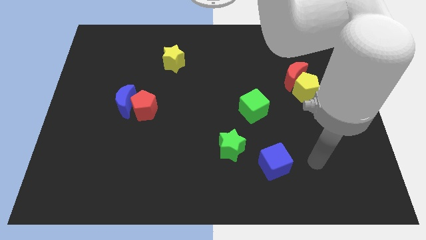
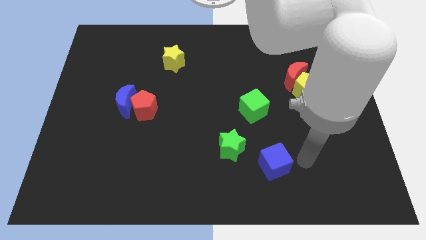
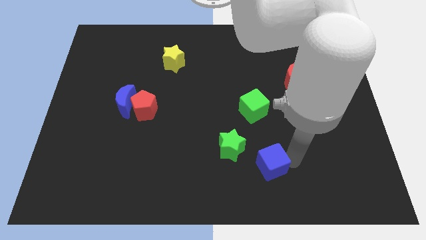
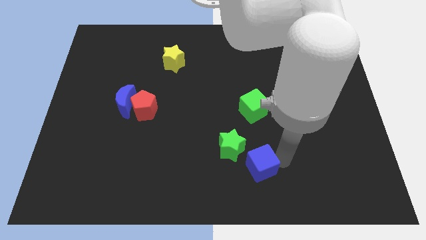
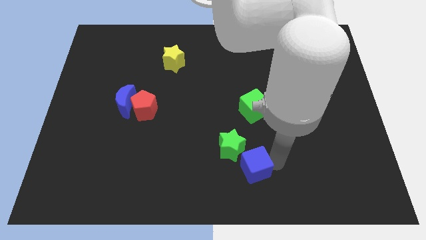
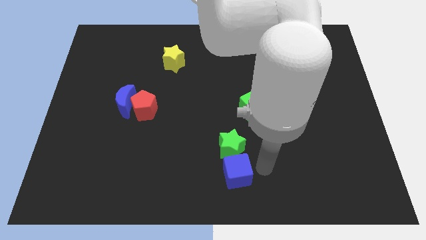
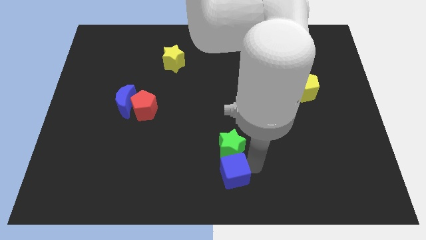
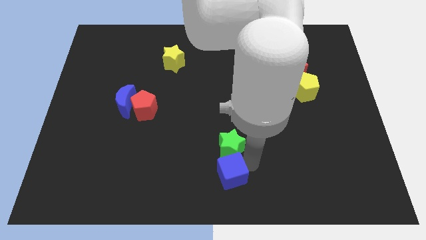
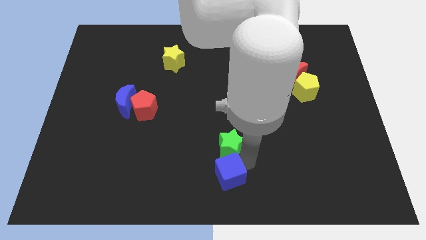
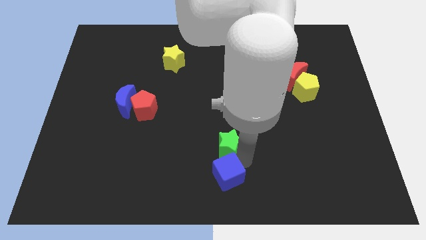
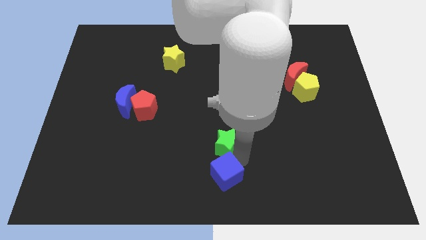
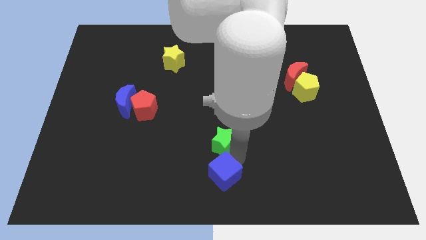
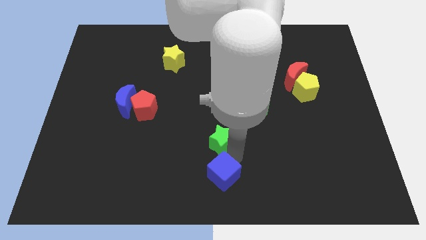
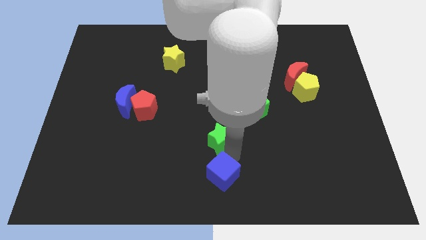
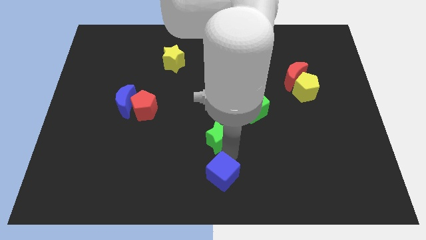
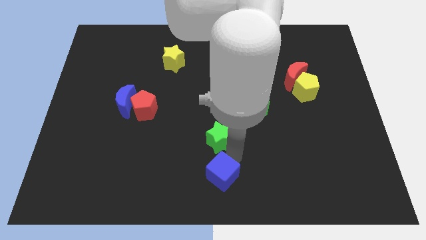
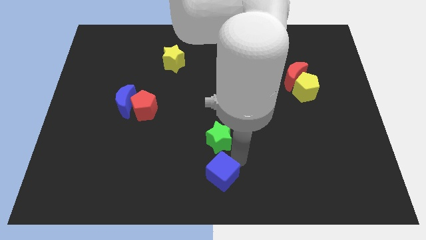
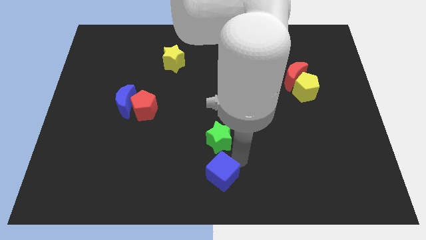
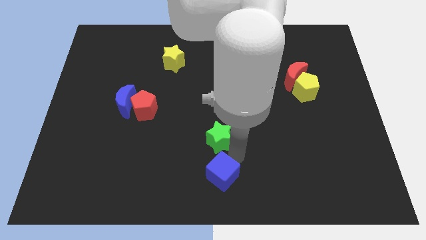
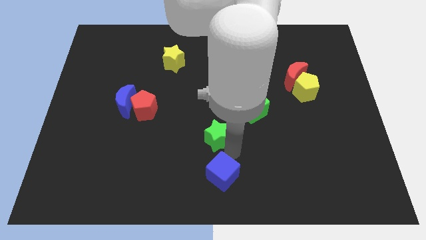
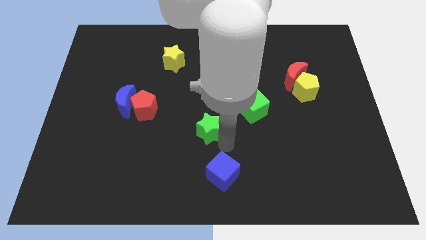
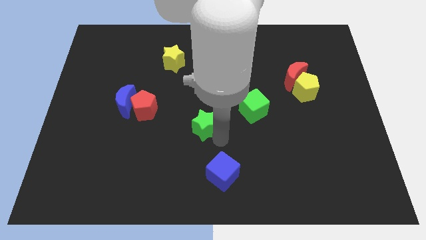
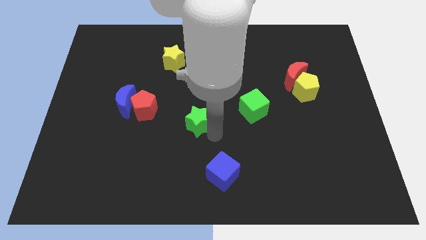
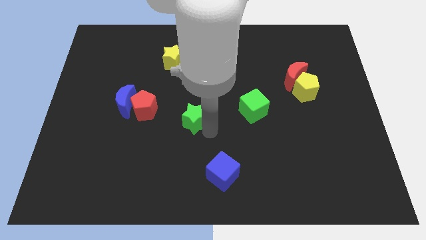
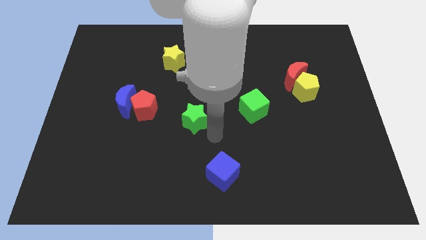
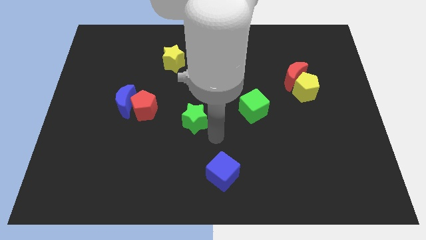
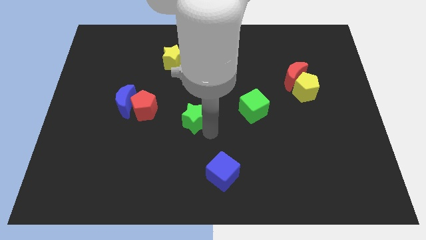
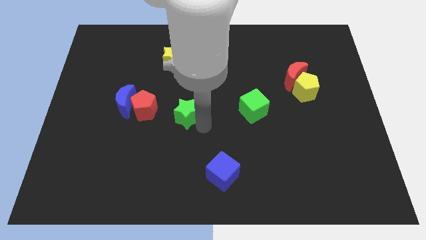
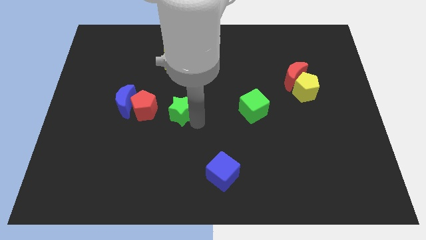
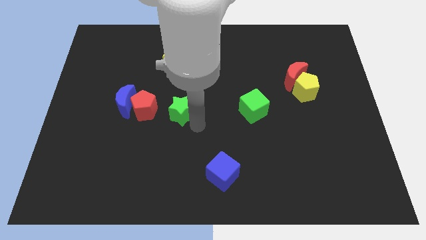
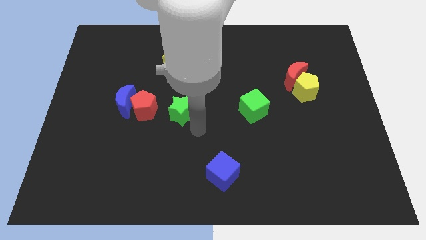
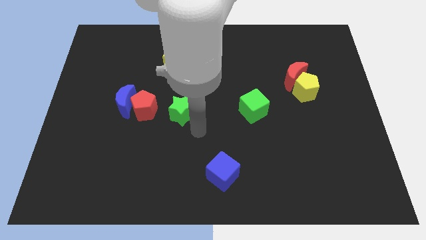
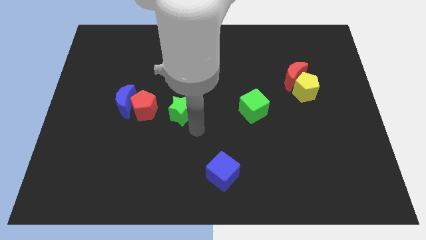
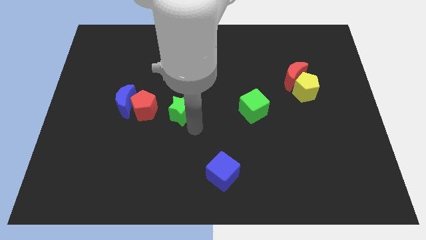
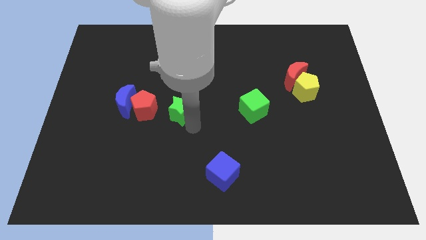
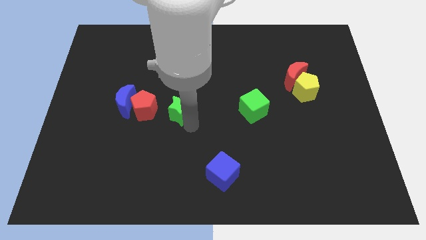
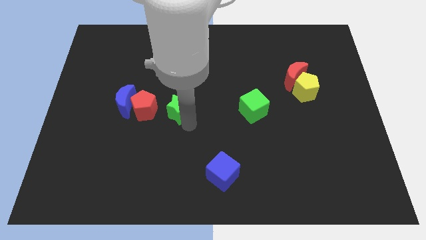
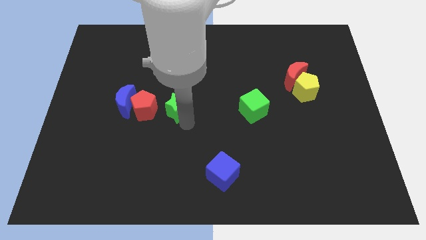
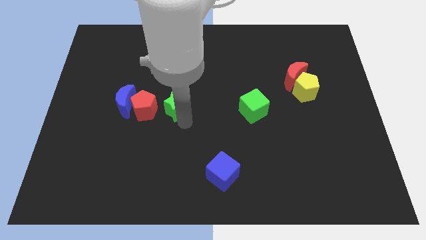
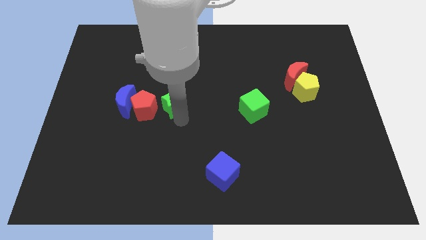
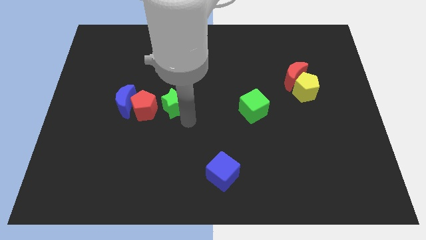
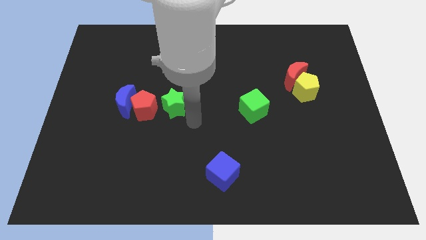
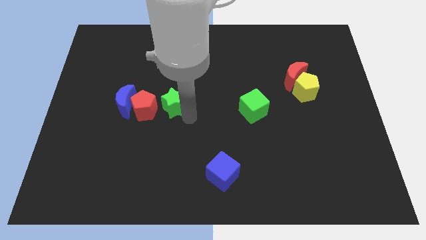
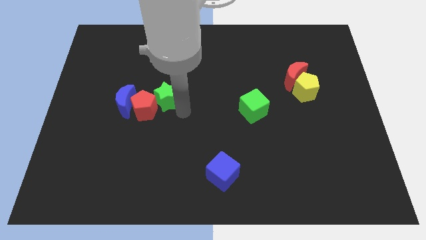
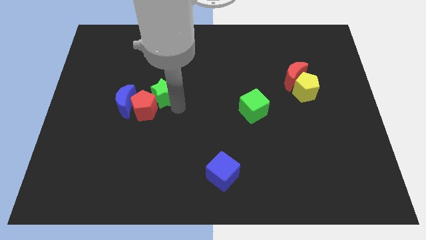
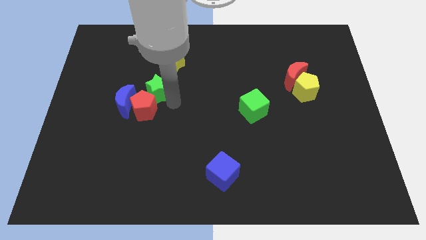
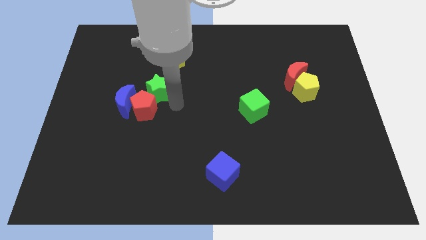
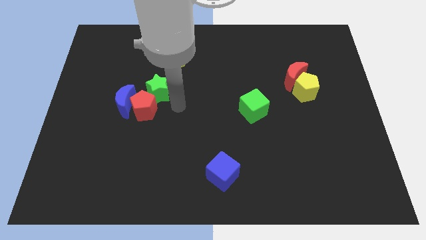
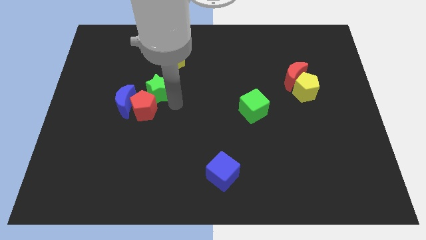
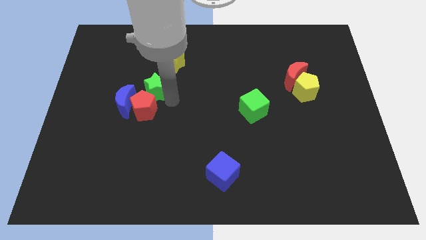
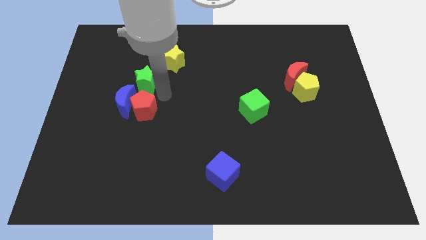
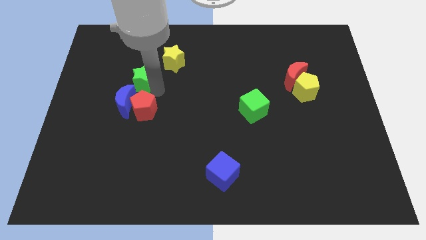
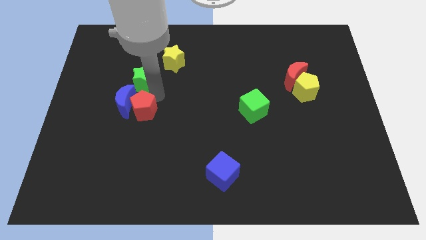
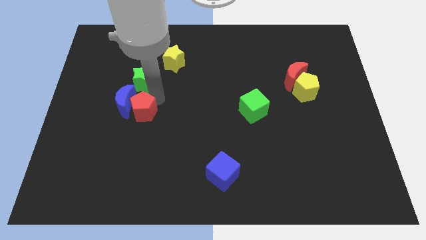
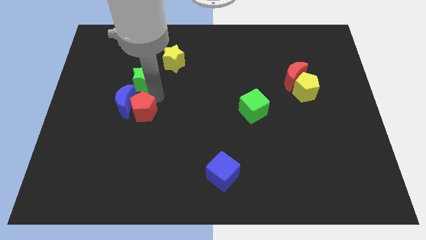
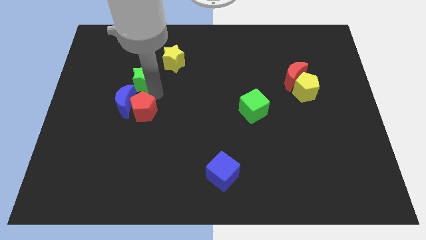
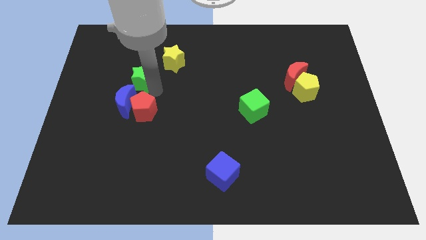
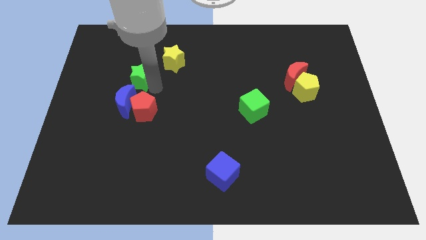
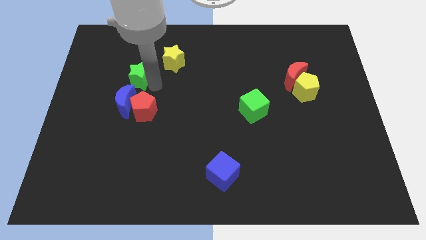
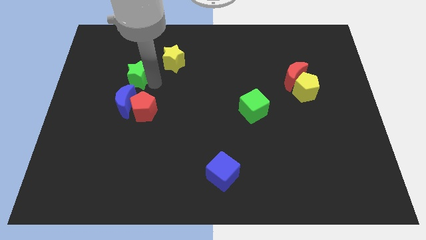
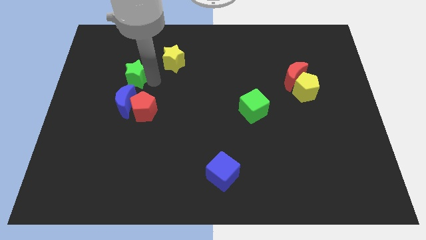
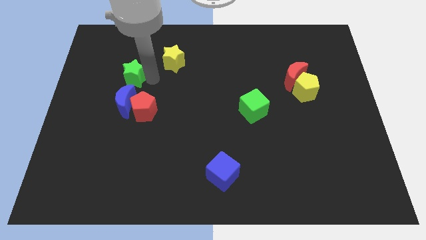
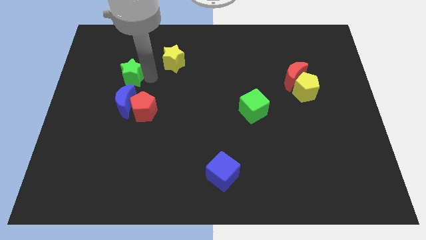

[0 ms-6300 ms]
push the green star to the left of the yellow star
